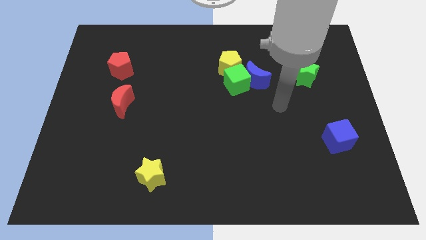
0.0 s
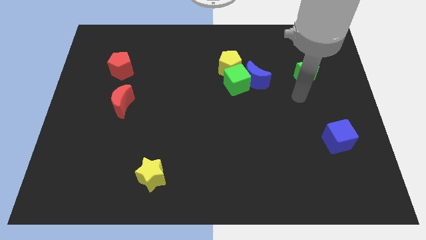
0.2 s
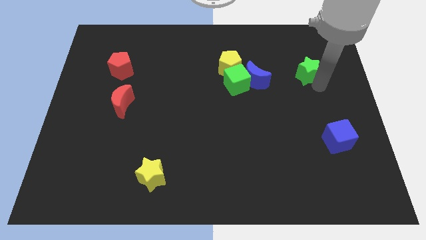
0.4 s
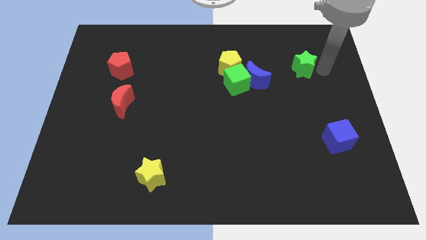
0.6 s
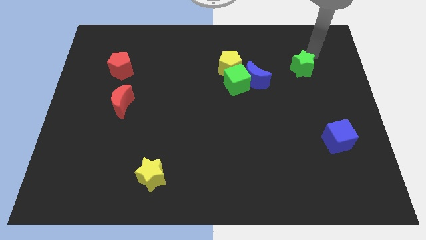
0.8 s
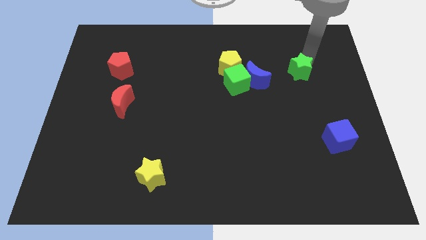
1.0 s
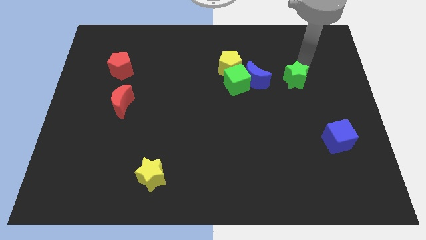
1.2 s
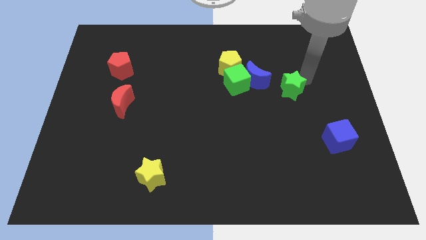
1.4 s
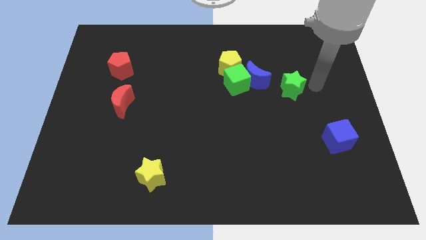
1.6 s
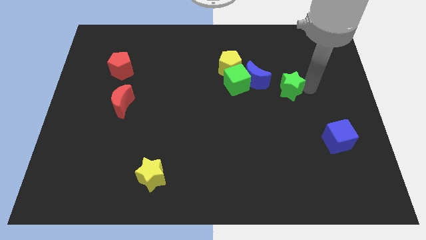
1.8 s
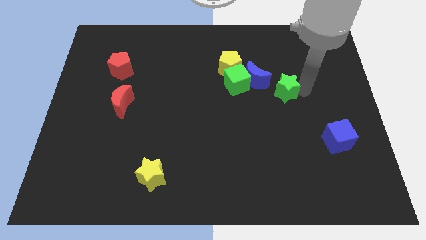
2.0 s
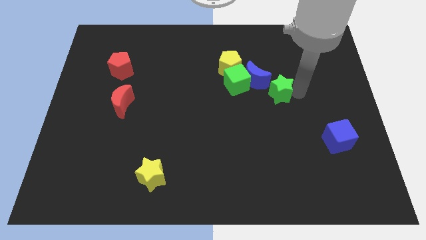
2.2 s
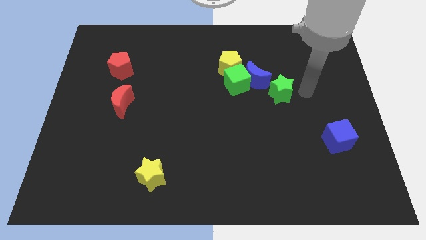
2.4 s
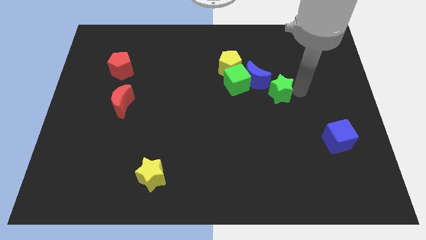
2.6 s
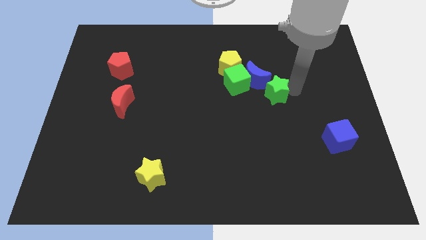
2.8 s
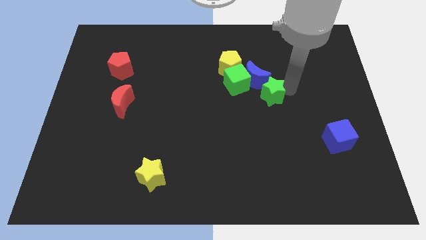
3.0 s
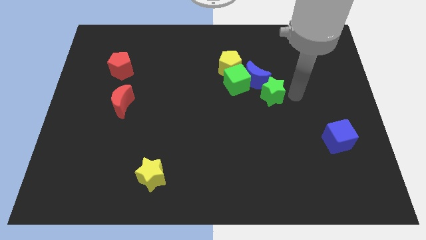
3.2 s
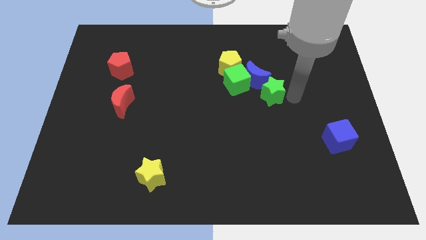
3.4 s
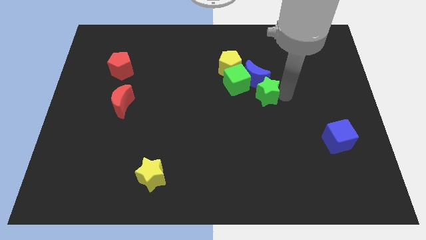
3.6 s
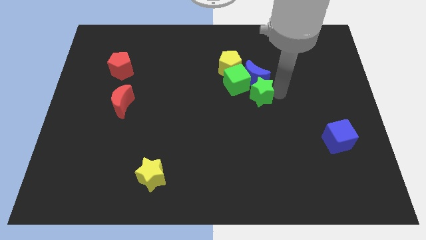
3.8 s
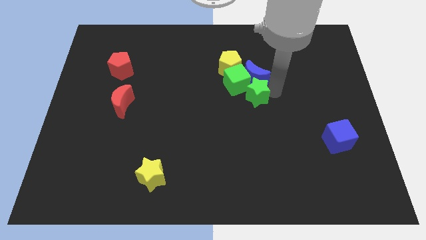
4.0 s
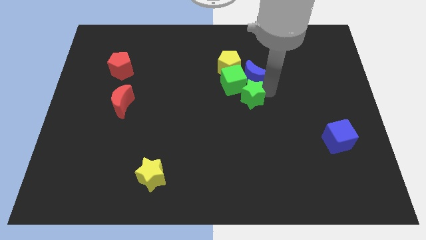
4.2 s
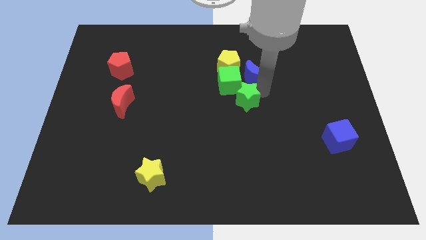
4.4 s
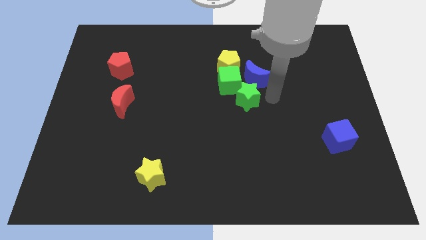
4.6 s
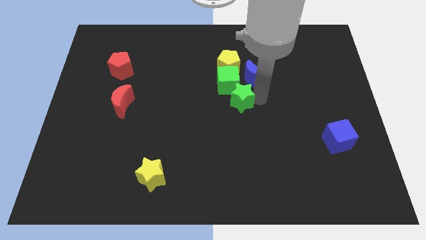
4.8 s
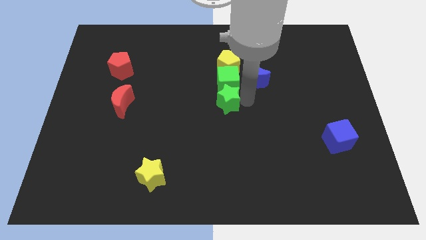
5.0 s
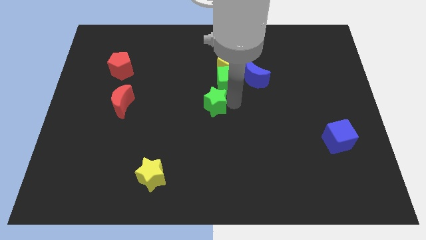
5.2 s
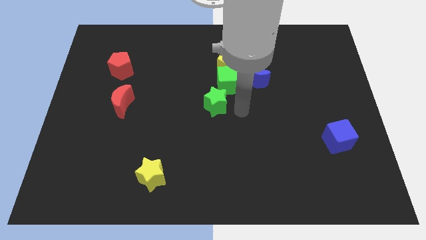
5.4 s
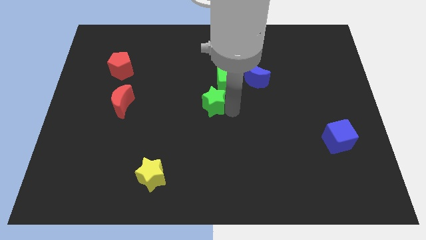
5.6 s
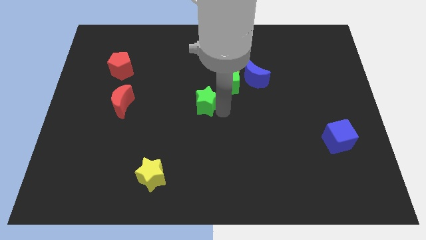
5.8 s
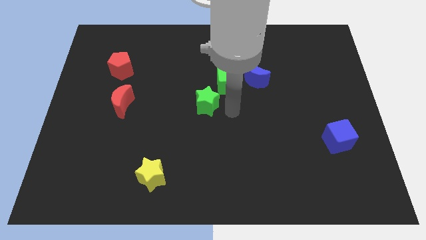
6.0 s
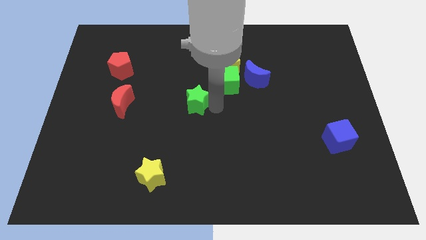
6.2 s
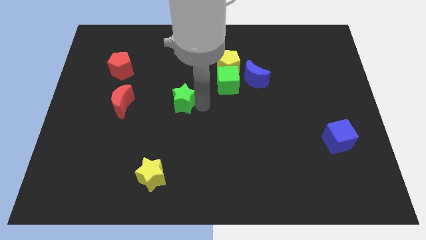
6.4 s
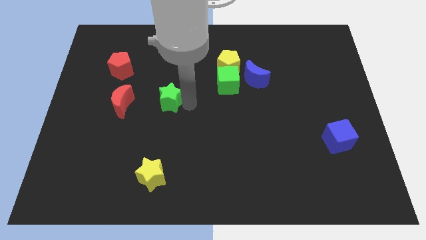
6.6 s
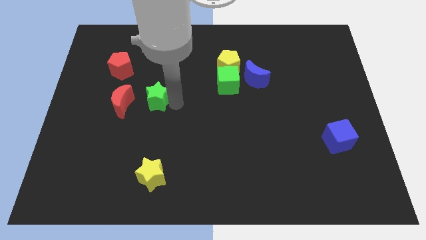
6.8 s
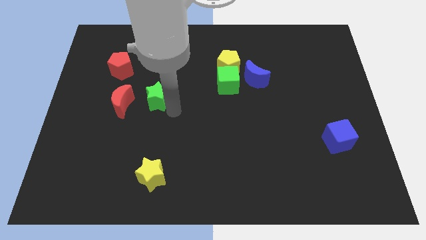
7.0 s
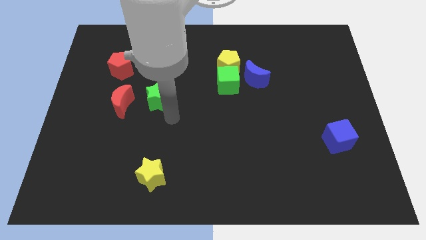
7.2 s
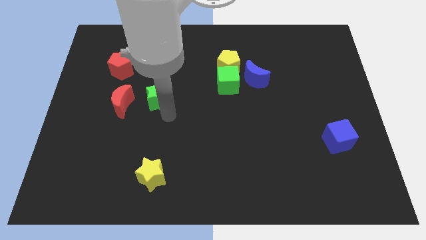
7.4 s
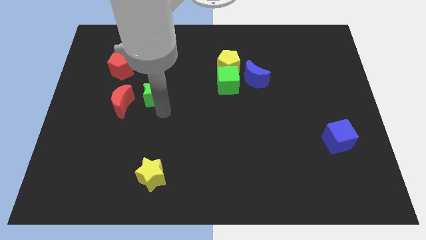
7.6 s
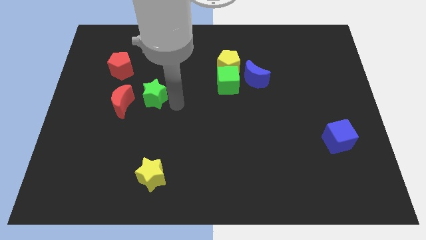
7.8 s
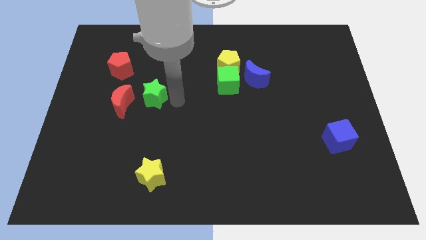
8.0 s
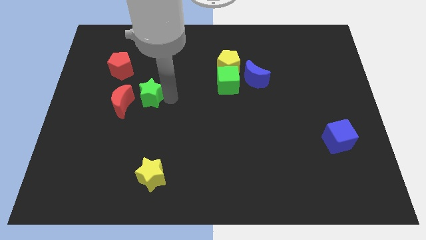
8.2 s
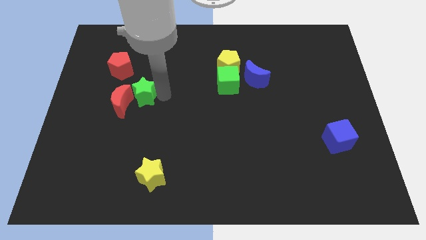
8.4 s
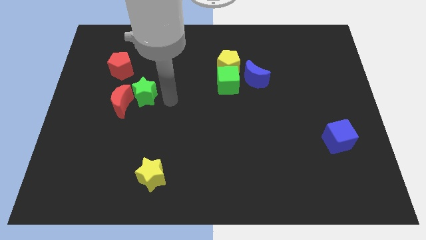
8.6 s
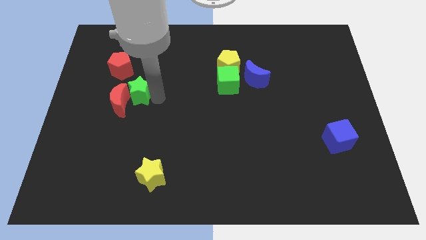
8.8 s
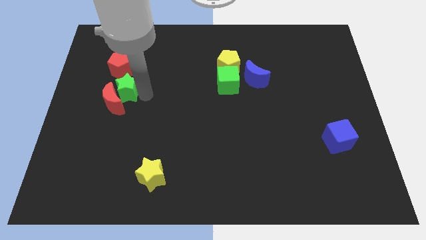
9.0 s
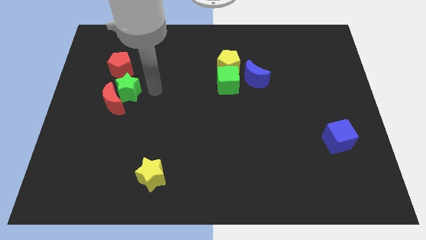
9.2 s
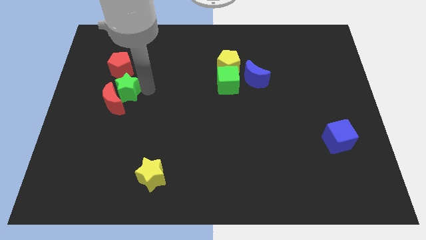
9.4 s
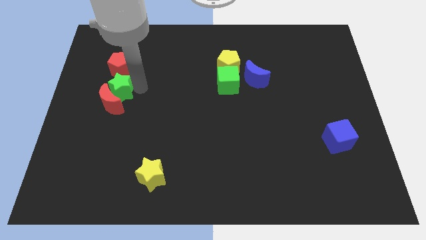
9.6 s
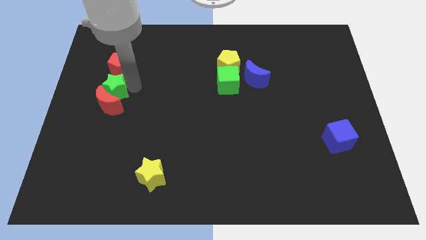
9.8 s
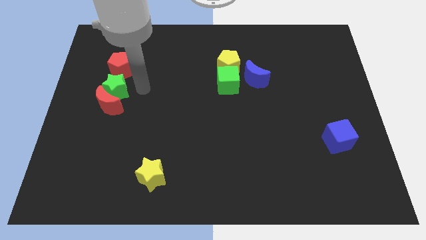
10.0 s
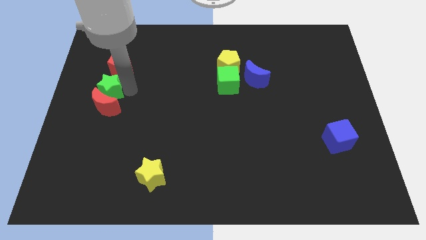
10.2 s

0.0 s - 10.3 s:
move the green star to the left side
